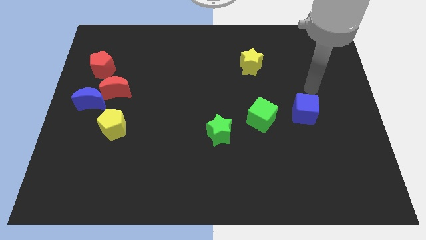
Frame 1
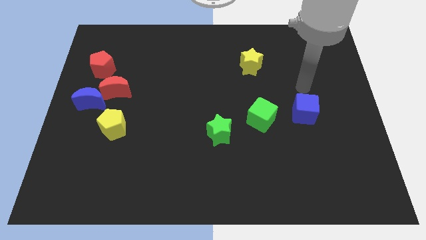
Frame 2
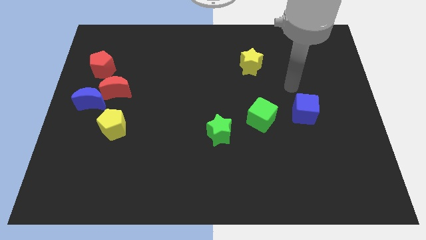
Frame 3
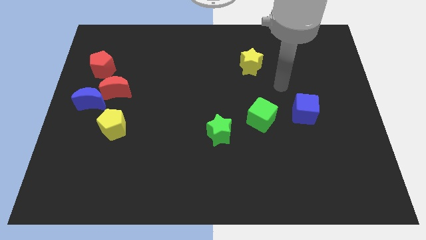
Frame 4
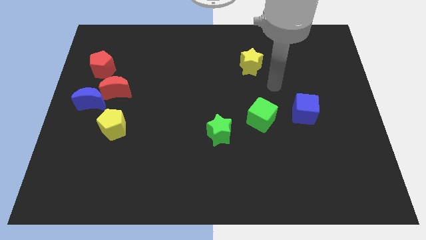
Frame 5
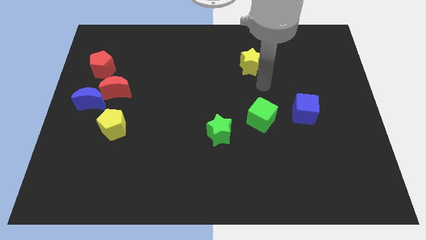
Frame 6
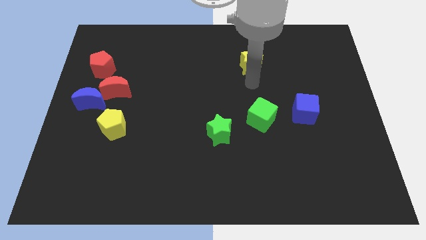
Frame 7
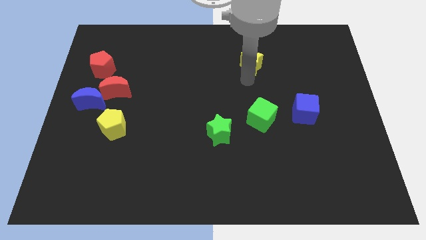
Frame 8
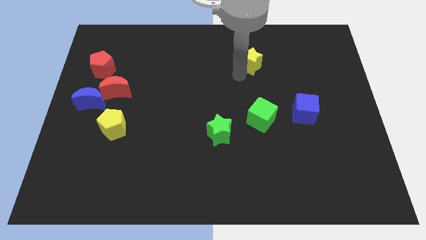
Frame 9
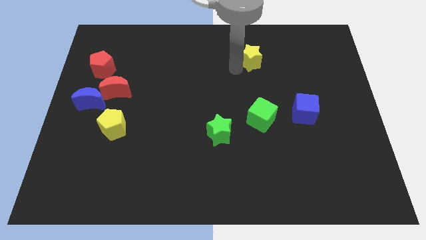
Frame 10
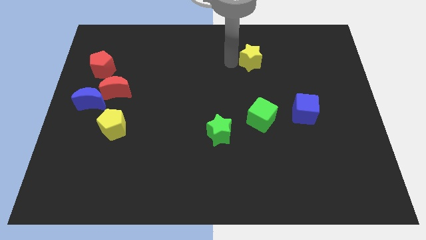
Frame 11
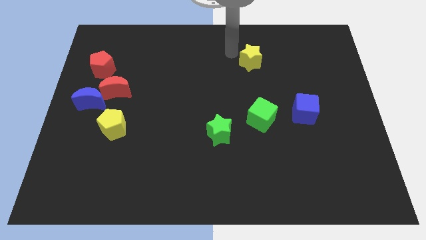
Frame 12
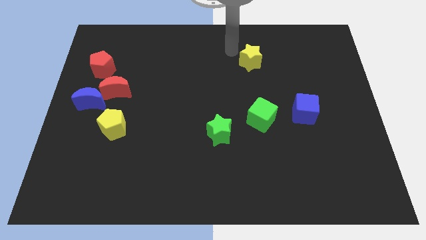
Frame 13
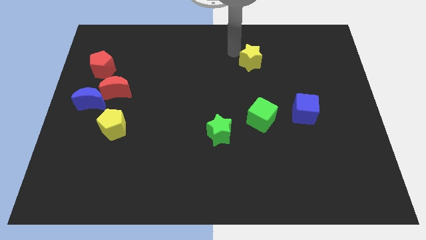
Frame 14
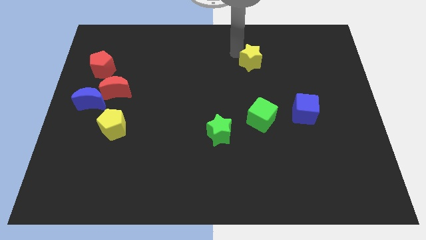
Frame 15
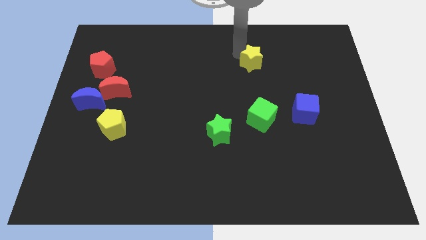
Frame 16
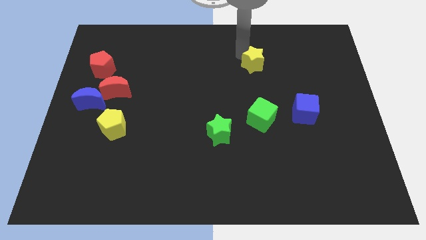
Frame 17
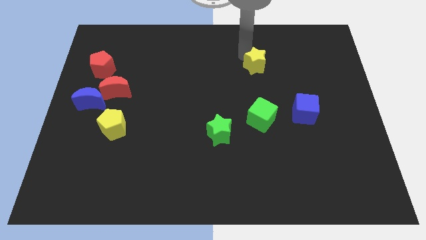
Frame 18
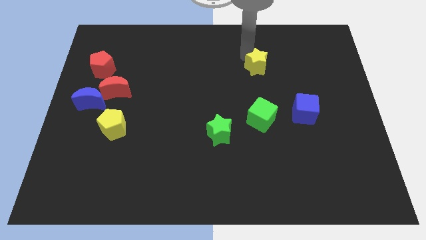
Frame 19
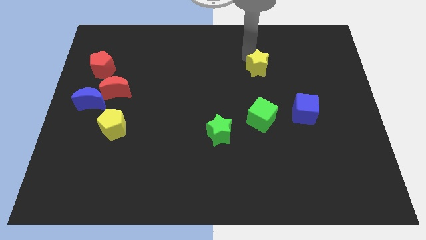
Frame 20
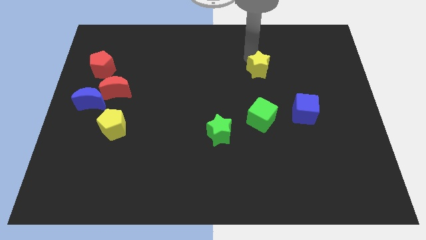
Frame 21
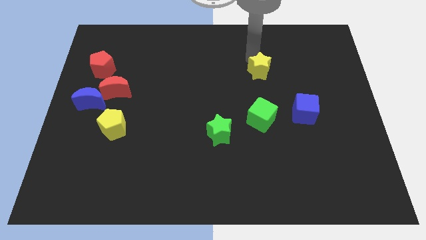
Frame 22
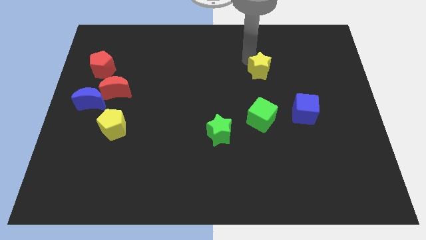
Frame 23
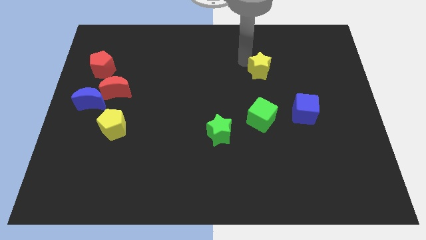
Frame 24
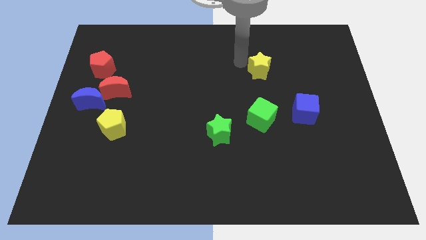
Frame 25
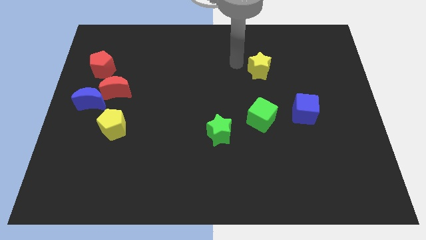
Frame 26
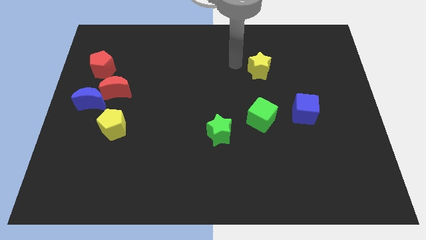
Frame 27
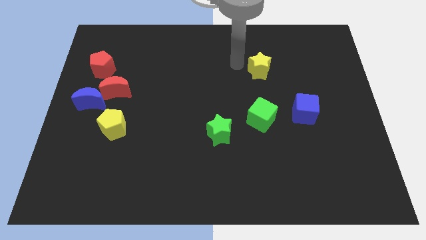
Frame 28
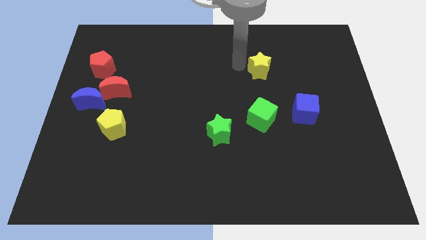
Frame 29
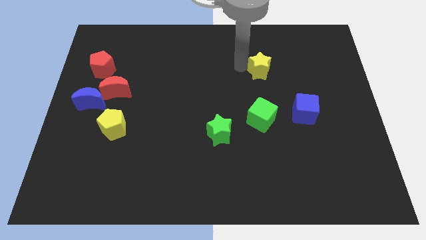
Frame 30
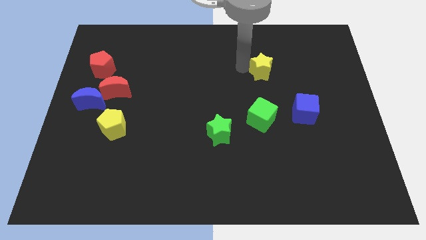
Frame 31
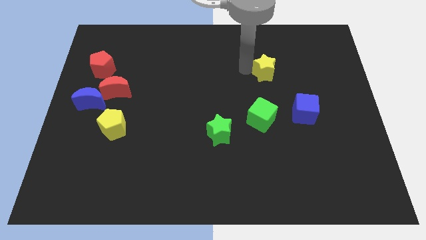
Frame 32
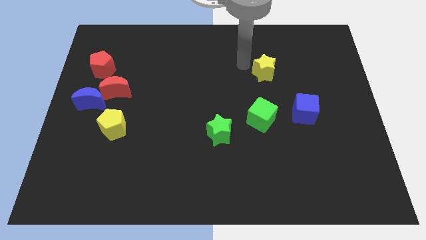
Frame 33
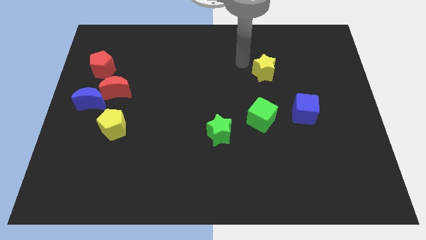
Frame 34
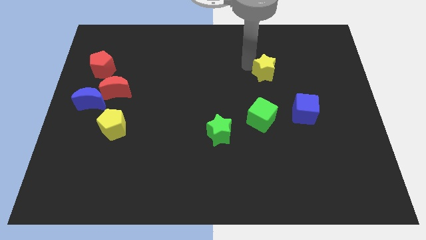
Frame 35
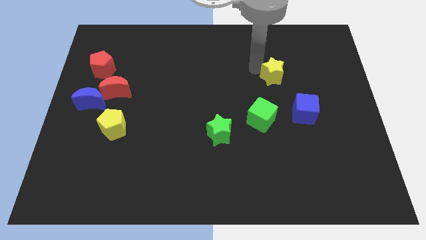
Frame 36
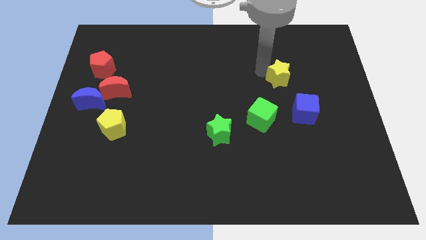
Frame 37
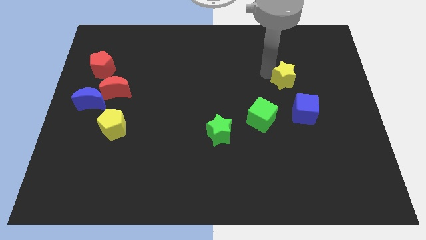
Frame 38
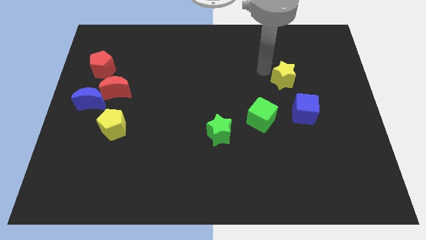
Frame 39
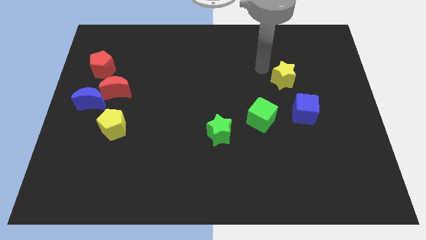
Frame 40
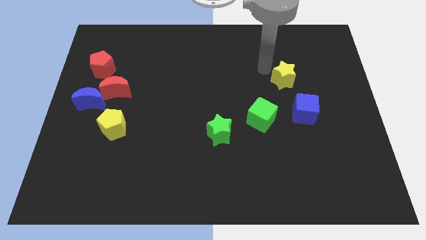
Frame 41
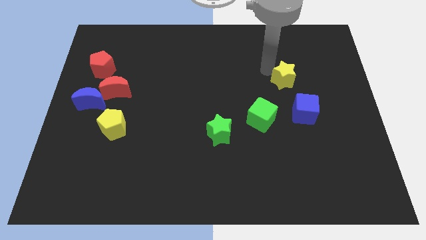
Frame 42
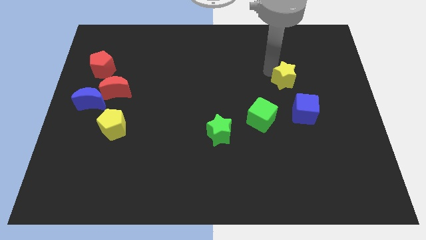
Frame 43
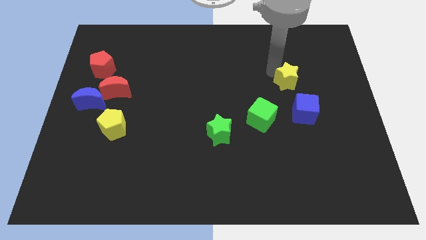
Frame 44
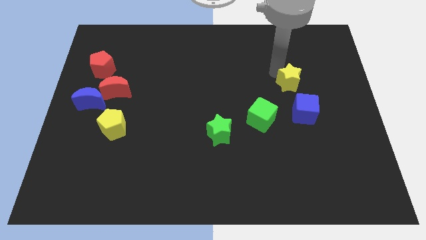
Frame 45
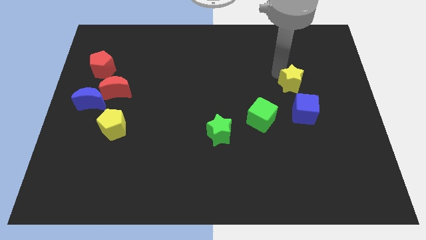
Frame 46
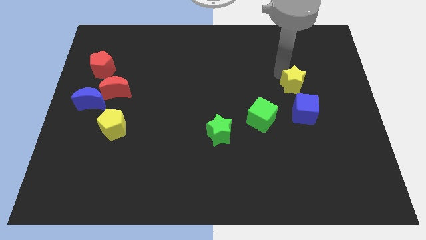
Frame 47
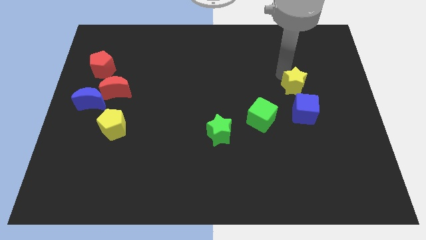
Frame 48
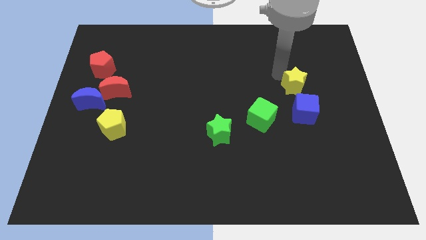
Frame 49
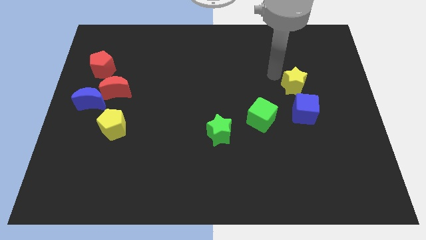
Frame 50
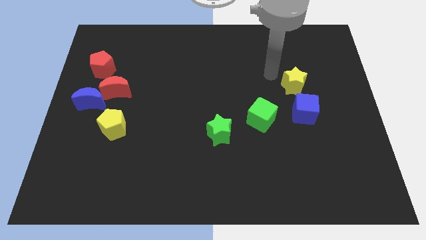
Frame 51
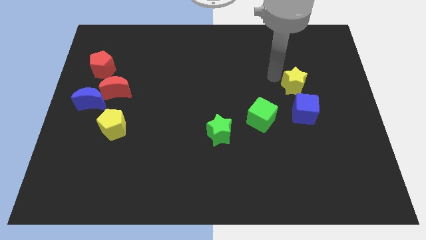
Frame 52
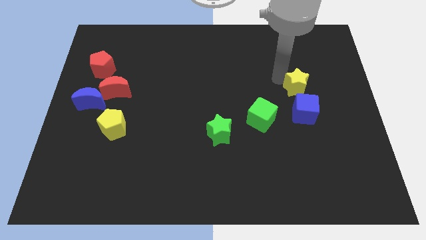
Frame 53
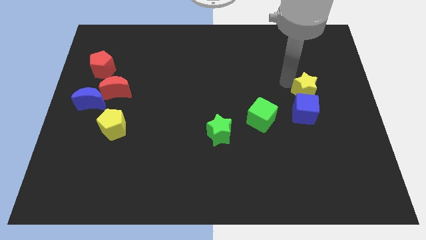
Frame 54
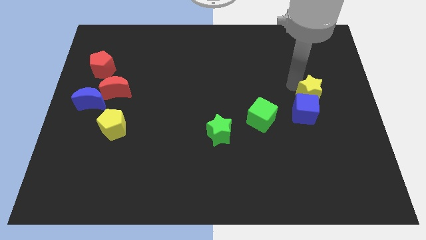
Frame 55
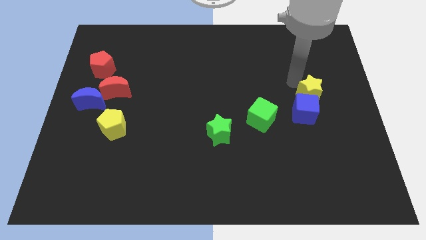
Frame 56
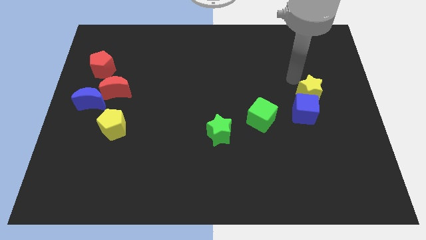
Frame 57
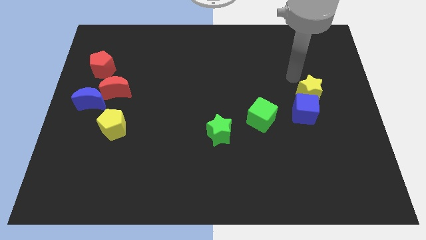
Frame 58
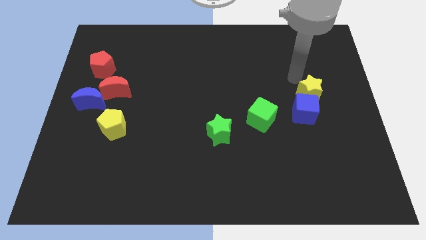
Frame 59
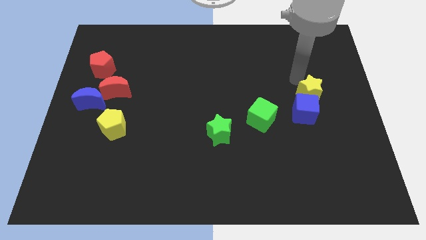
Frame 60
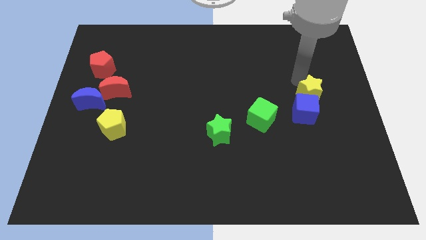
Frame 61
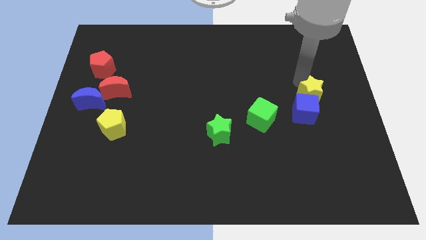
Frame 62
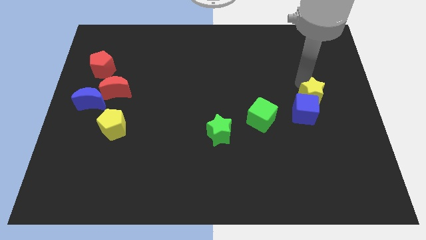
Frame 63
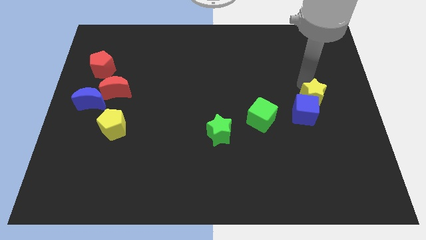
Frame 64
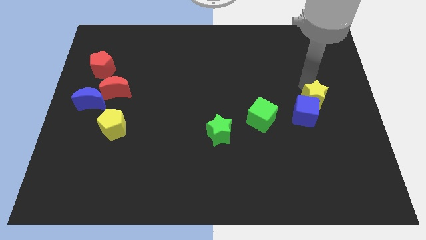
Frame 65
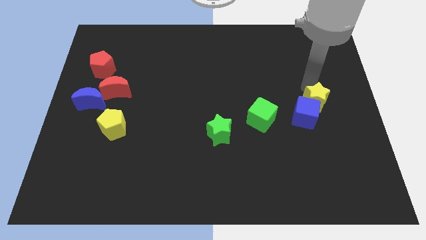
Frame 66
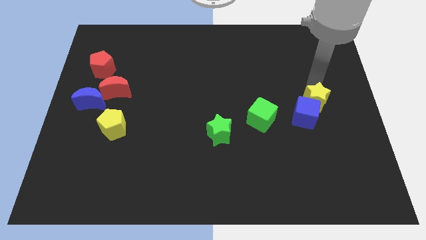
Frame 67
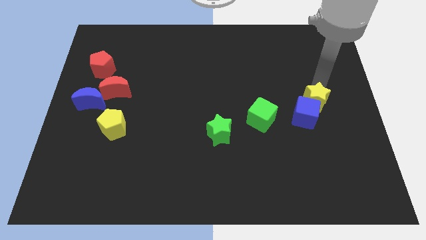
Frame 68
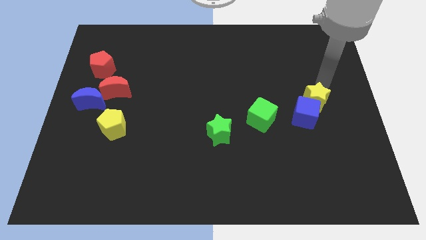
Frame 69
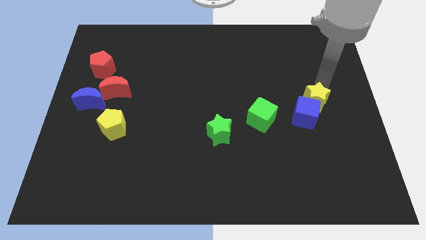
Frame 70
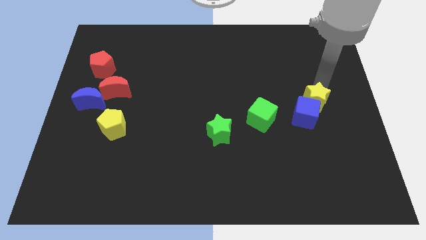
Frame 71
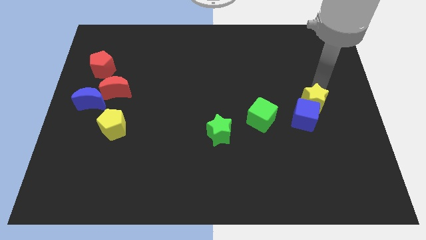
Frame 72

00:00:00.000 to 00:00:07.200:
put the yellow star right of the green cube
